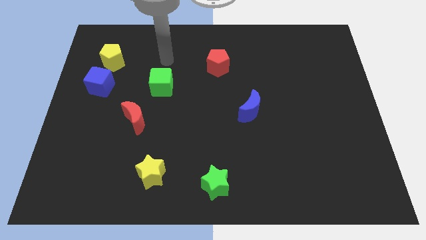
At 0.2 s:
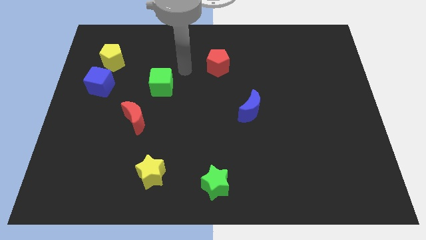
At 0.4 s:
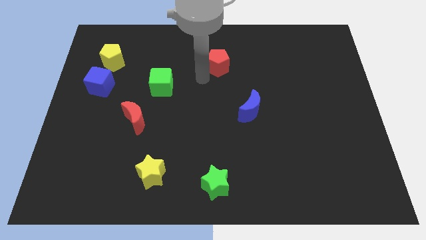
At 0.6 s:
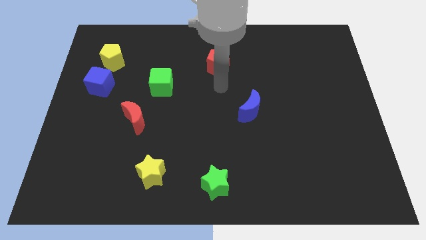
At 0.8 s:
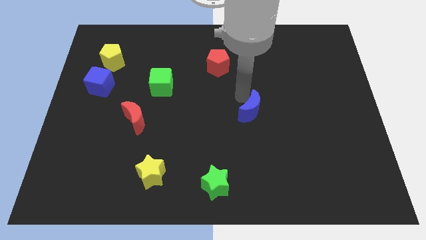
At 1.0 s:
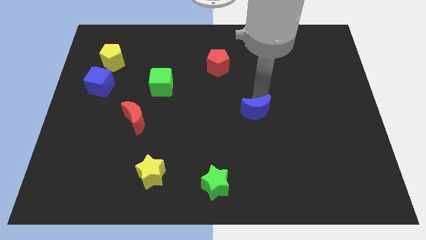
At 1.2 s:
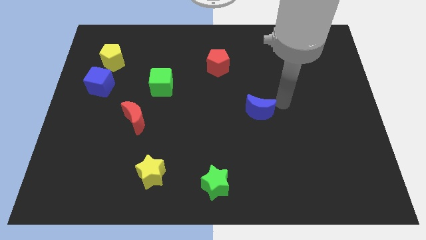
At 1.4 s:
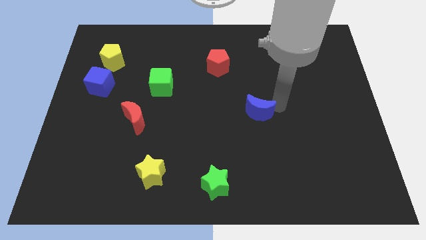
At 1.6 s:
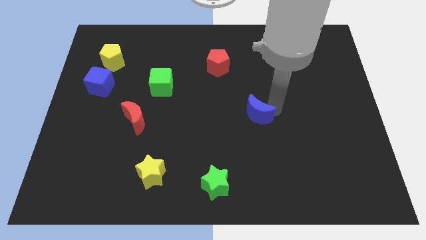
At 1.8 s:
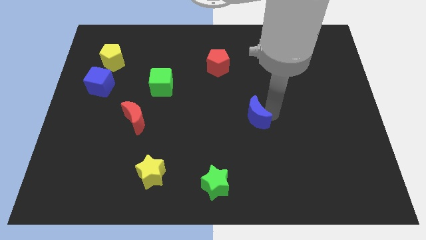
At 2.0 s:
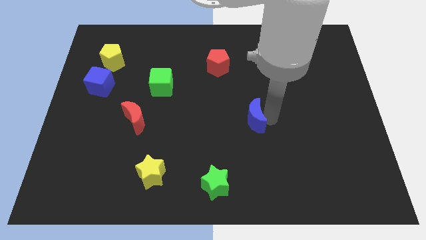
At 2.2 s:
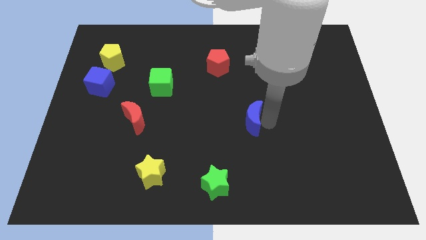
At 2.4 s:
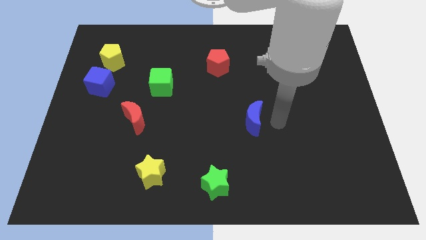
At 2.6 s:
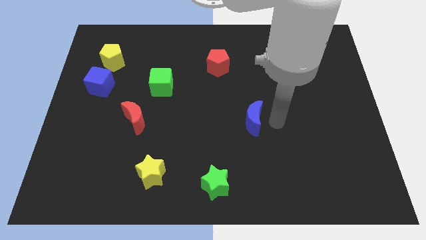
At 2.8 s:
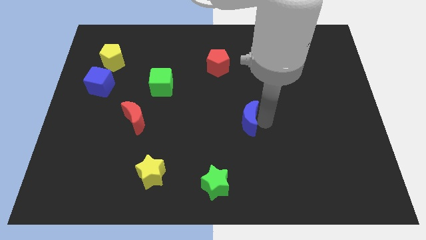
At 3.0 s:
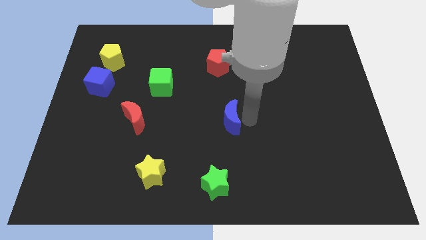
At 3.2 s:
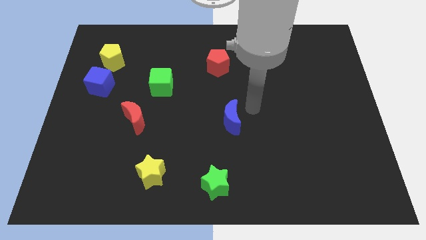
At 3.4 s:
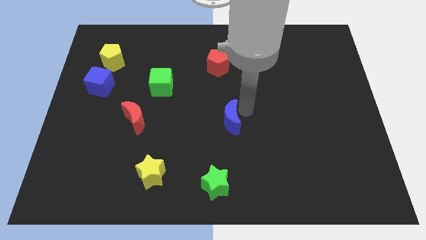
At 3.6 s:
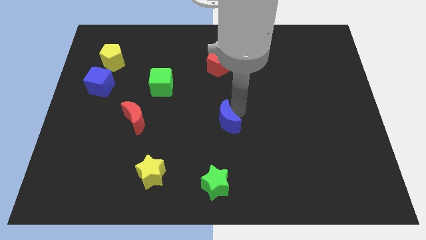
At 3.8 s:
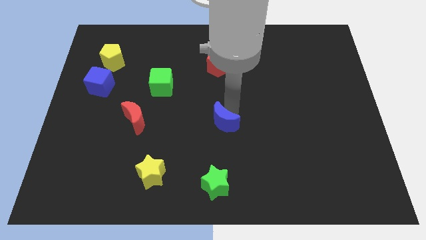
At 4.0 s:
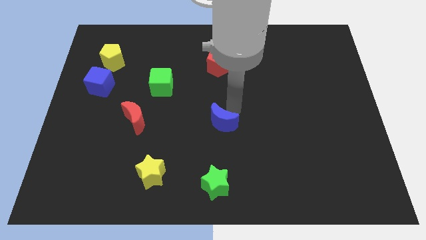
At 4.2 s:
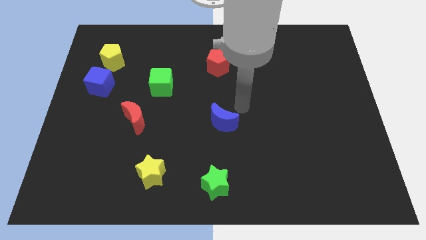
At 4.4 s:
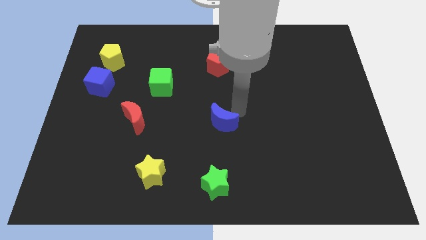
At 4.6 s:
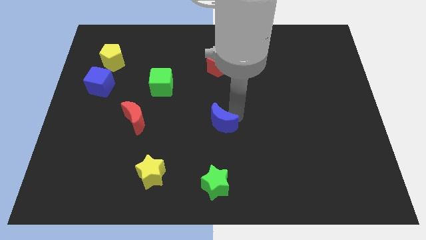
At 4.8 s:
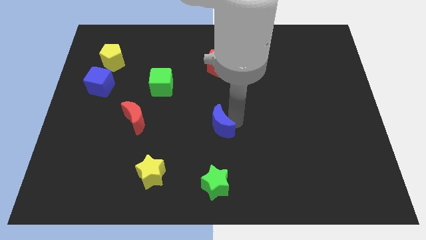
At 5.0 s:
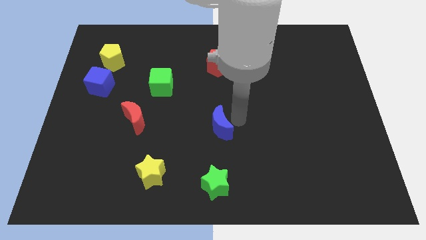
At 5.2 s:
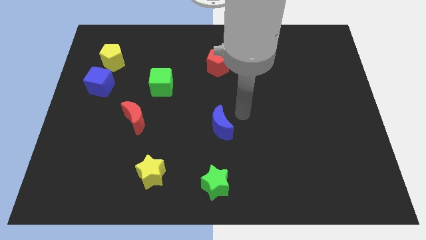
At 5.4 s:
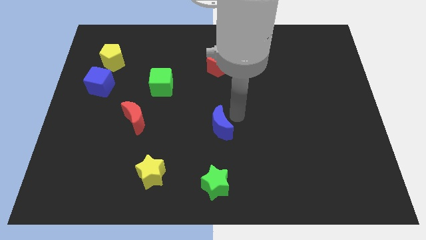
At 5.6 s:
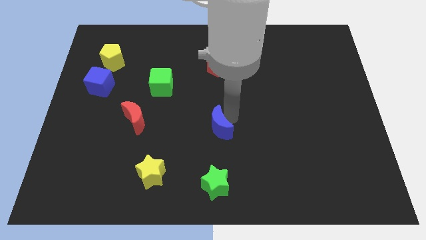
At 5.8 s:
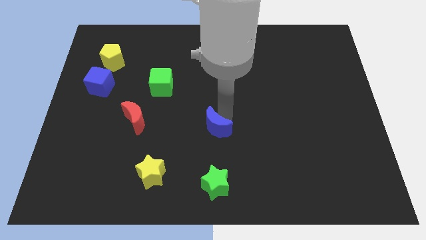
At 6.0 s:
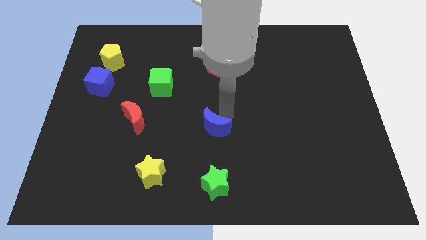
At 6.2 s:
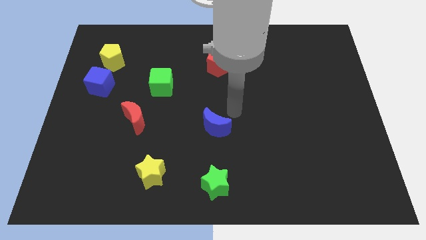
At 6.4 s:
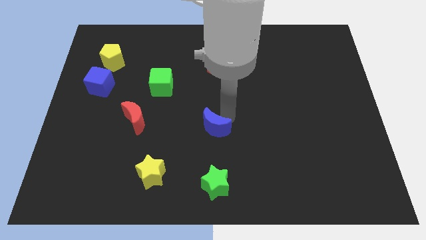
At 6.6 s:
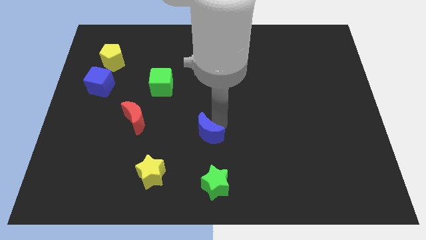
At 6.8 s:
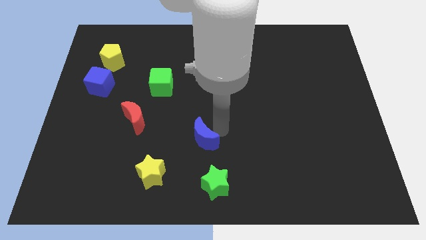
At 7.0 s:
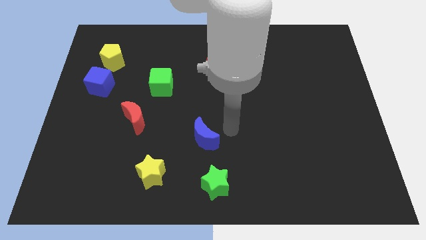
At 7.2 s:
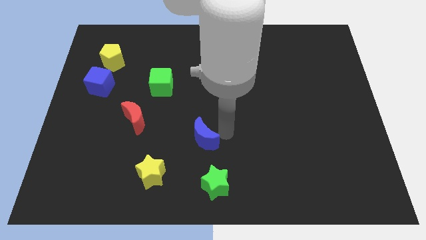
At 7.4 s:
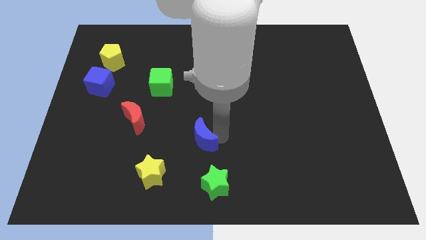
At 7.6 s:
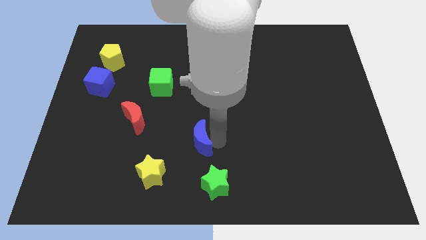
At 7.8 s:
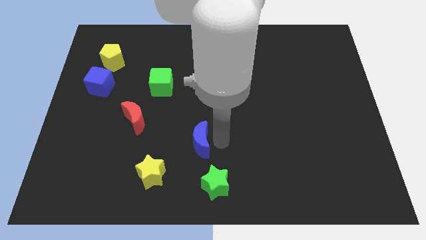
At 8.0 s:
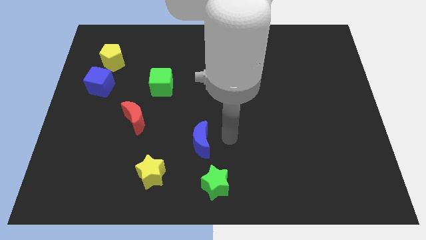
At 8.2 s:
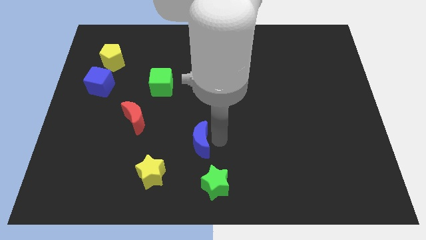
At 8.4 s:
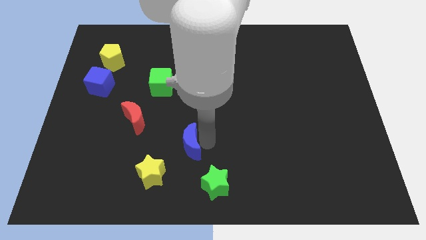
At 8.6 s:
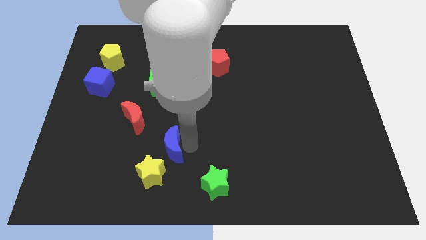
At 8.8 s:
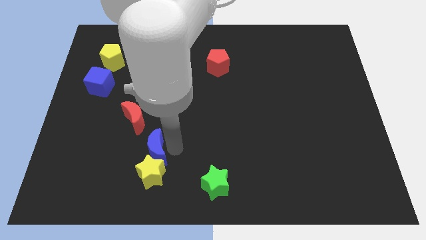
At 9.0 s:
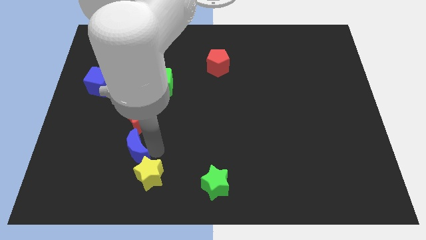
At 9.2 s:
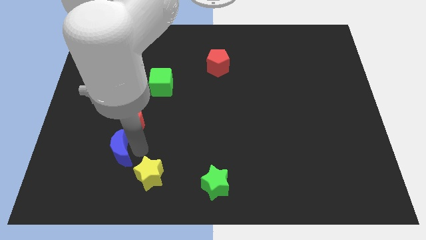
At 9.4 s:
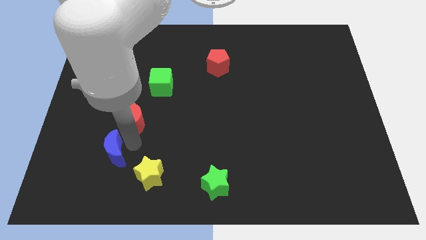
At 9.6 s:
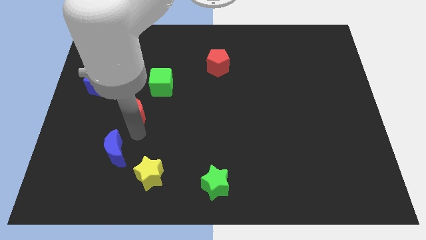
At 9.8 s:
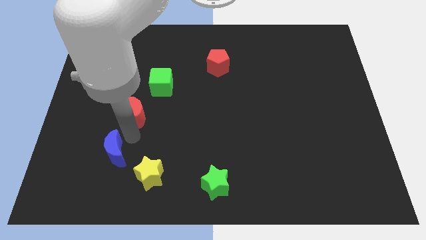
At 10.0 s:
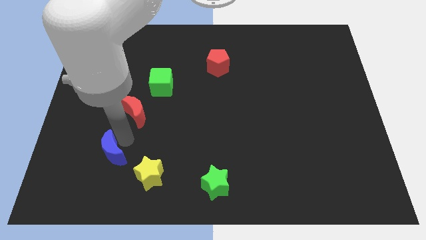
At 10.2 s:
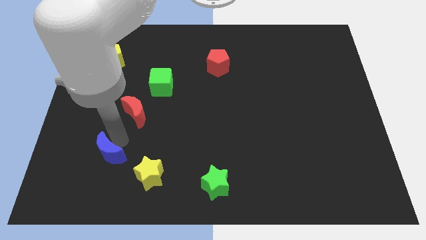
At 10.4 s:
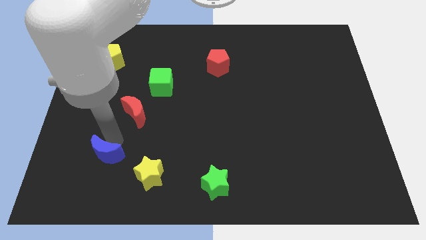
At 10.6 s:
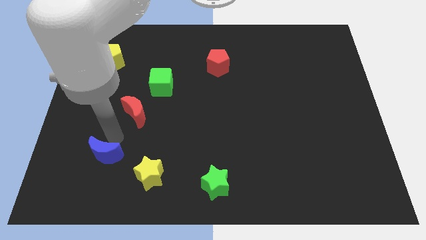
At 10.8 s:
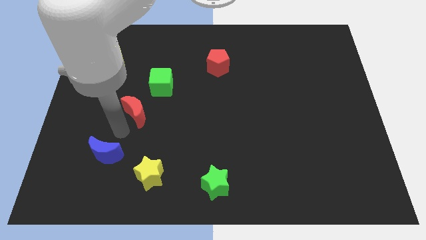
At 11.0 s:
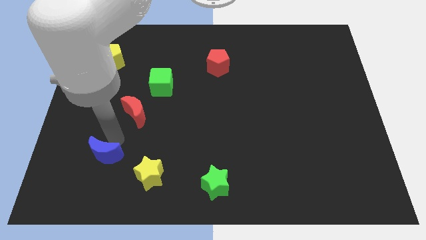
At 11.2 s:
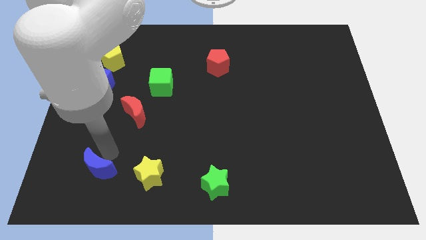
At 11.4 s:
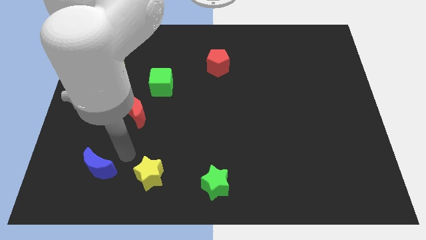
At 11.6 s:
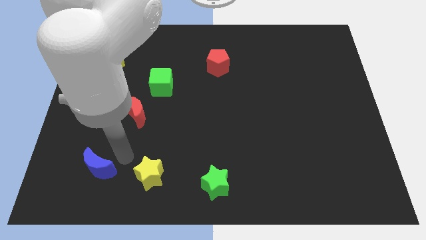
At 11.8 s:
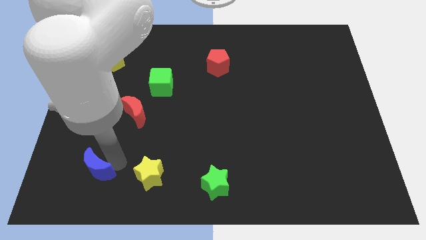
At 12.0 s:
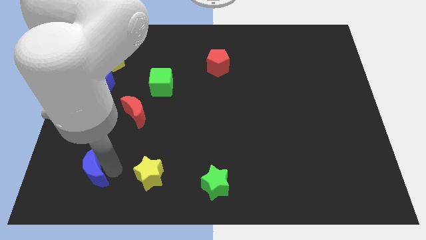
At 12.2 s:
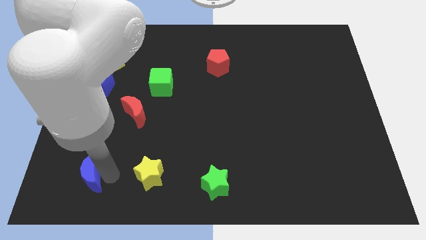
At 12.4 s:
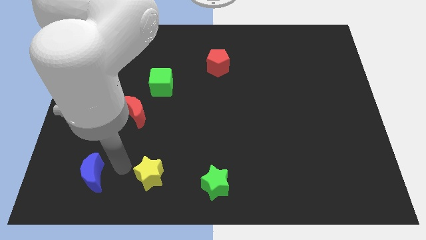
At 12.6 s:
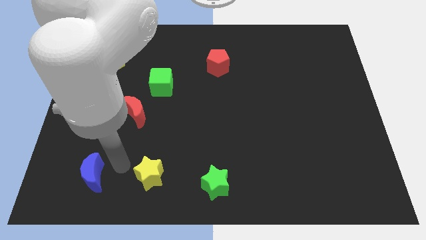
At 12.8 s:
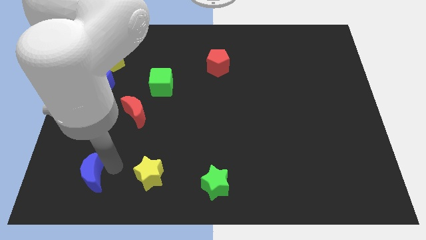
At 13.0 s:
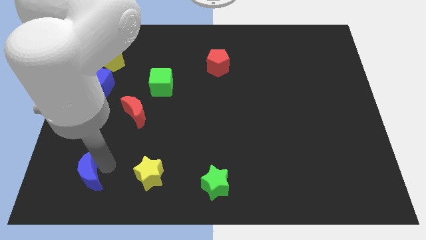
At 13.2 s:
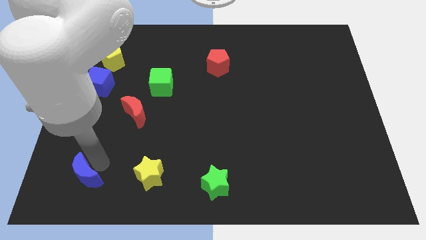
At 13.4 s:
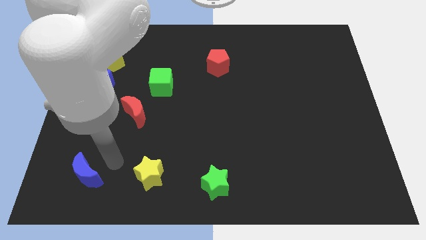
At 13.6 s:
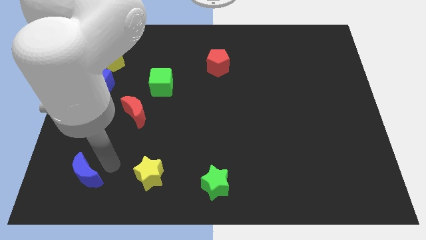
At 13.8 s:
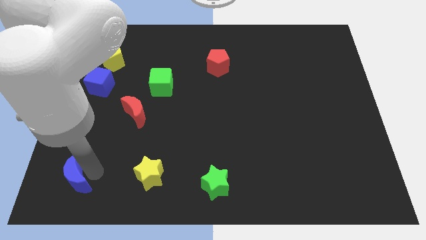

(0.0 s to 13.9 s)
move the blue moon to the bottom left of the board
